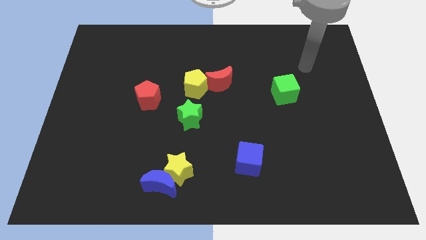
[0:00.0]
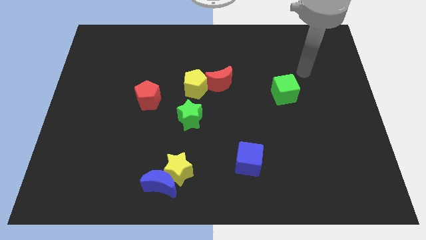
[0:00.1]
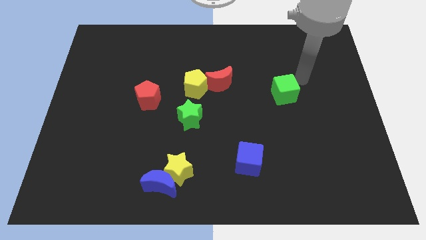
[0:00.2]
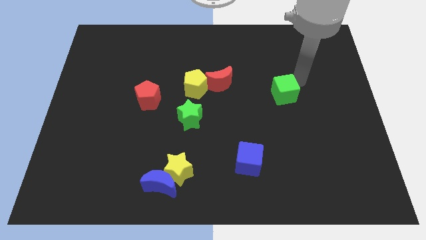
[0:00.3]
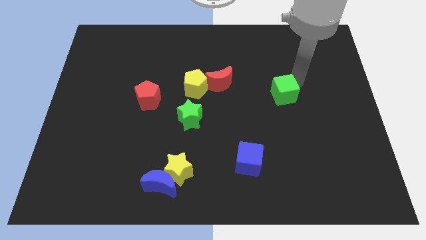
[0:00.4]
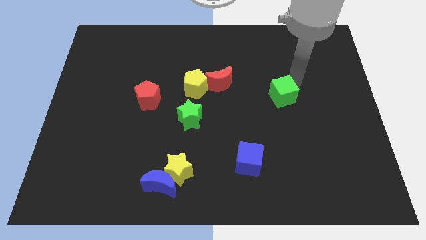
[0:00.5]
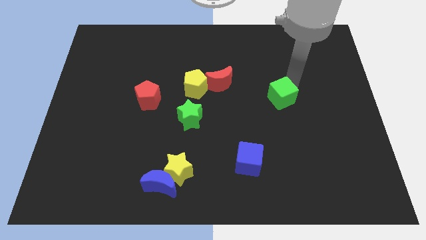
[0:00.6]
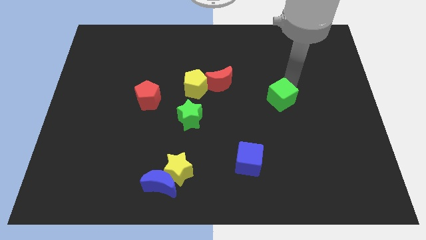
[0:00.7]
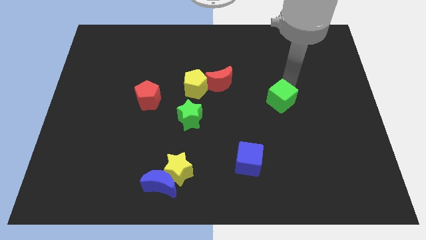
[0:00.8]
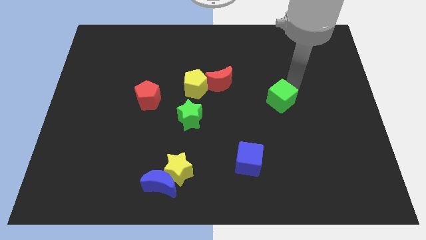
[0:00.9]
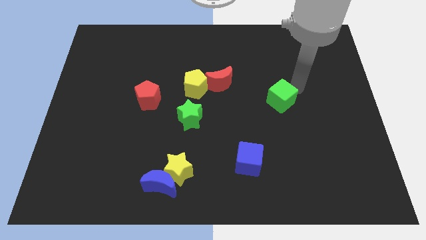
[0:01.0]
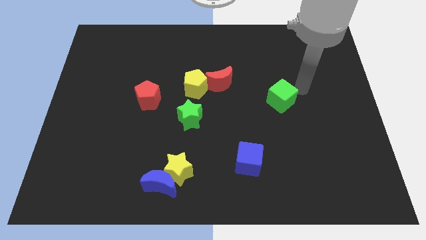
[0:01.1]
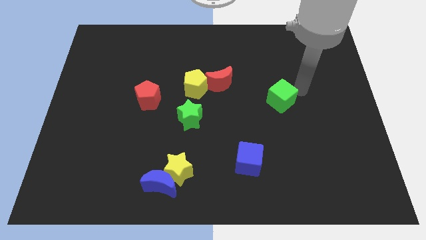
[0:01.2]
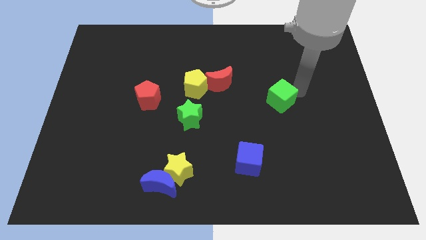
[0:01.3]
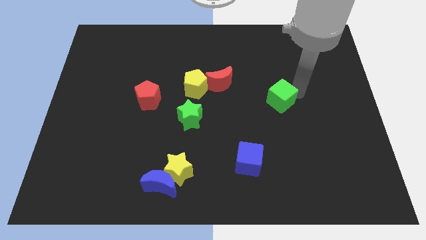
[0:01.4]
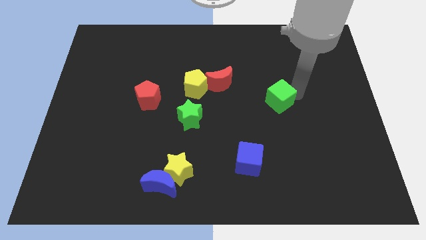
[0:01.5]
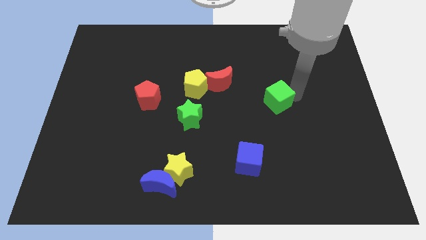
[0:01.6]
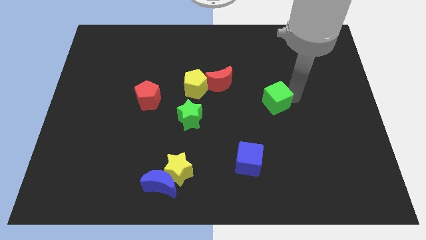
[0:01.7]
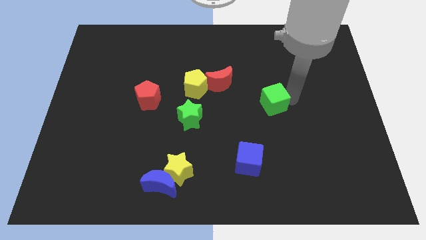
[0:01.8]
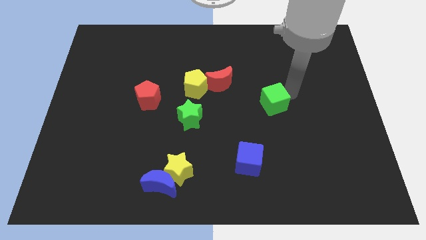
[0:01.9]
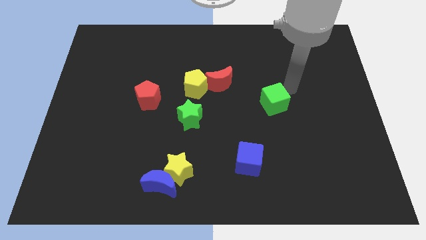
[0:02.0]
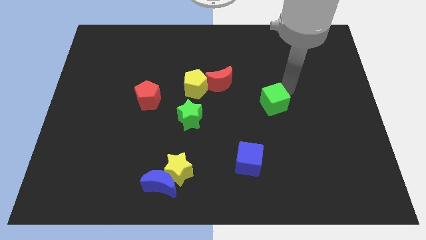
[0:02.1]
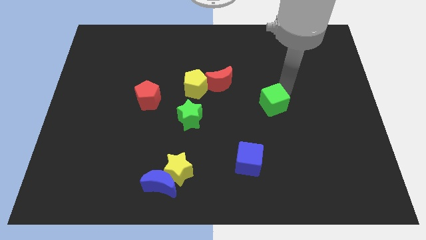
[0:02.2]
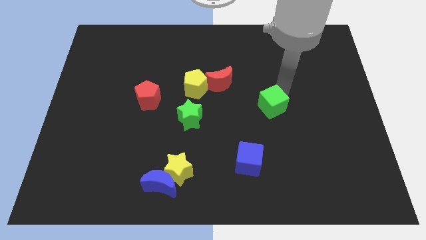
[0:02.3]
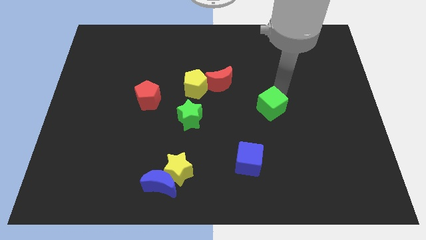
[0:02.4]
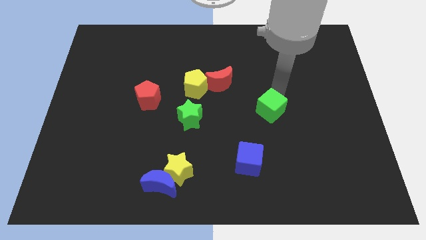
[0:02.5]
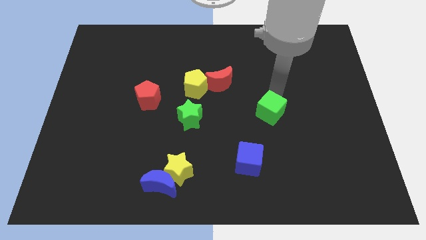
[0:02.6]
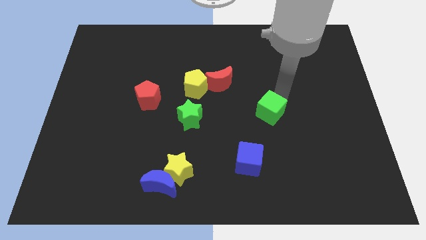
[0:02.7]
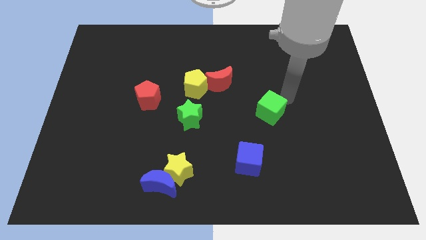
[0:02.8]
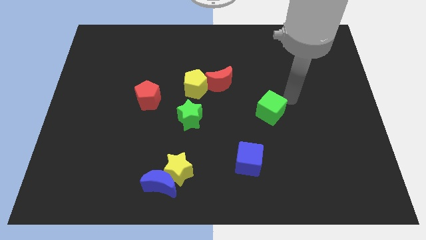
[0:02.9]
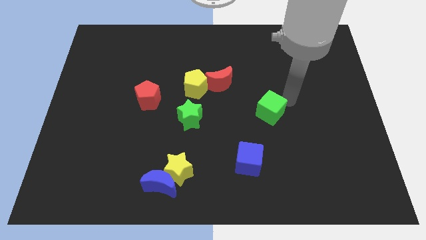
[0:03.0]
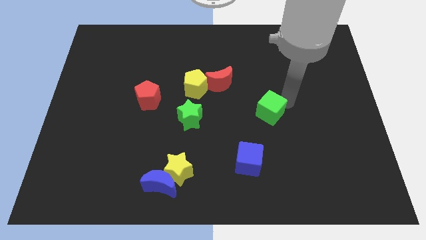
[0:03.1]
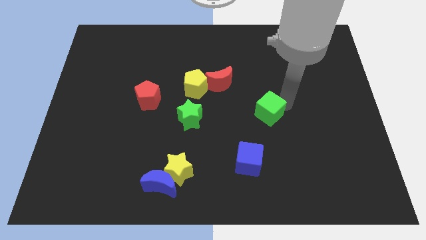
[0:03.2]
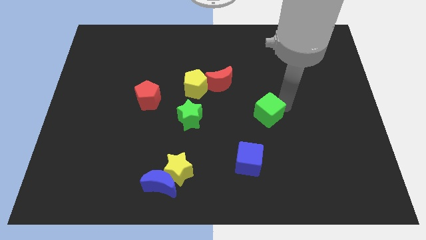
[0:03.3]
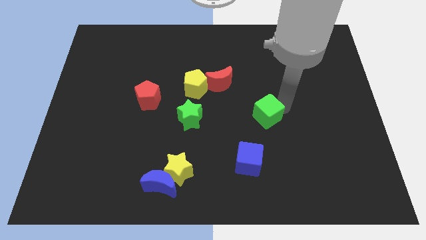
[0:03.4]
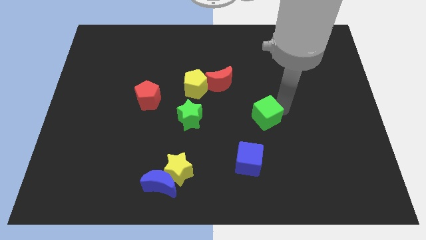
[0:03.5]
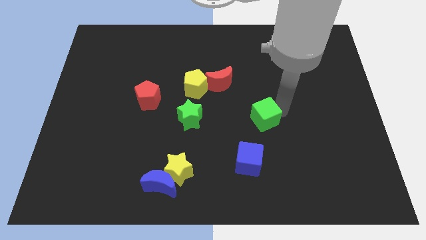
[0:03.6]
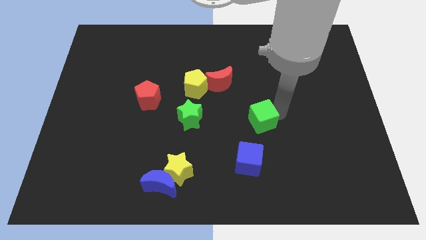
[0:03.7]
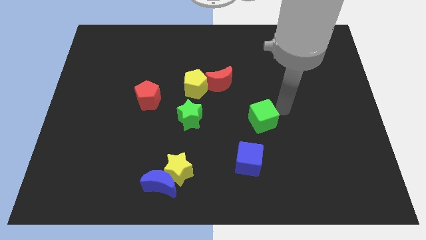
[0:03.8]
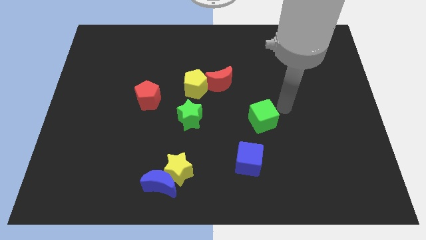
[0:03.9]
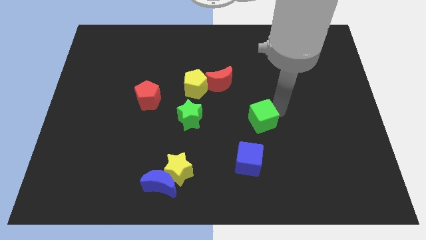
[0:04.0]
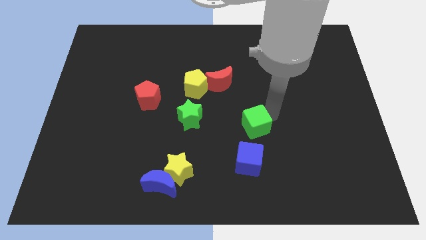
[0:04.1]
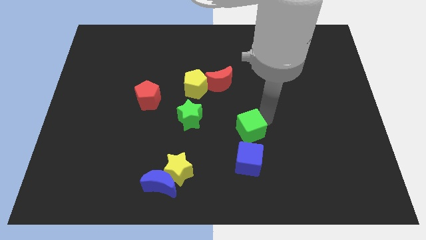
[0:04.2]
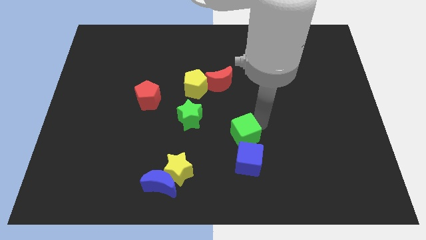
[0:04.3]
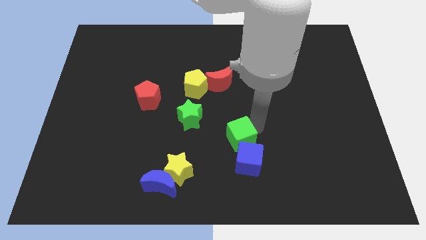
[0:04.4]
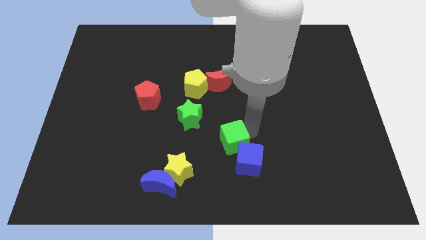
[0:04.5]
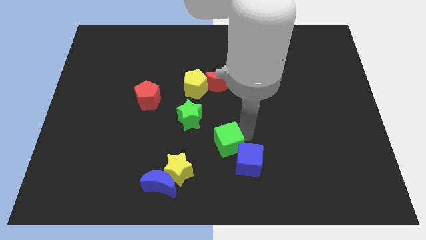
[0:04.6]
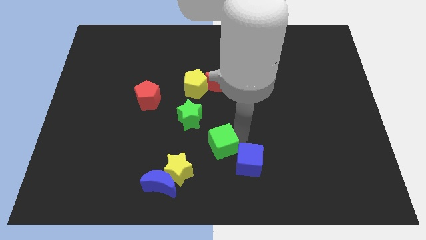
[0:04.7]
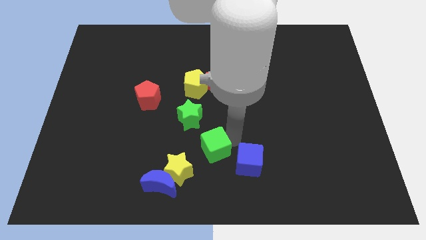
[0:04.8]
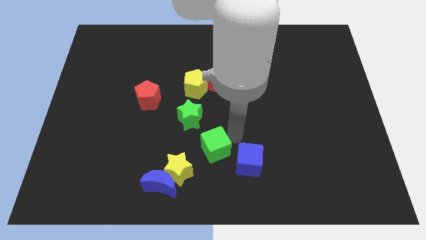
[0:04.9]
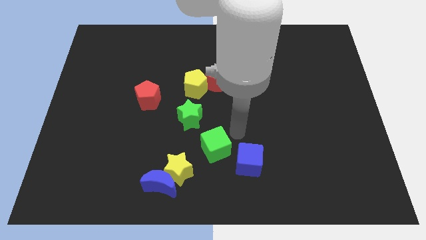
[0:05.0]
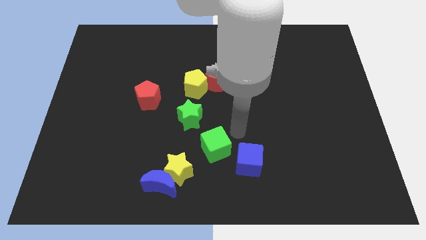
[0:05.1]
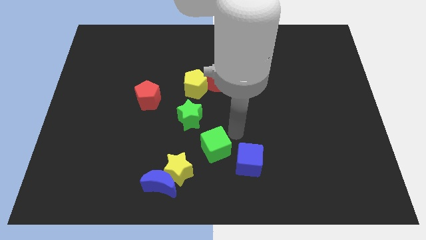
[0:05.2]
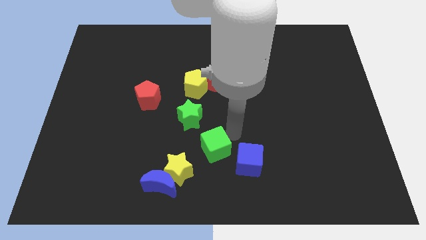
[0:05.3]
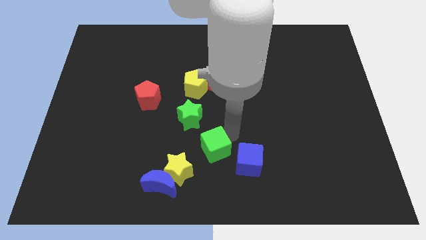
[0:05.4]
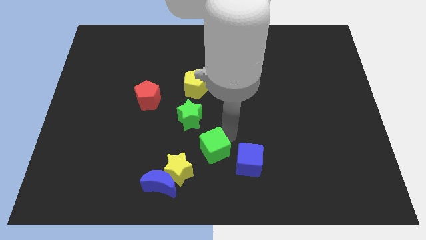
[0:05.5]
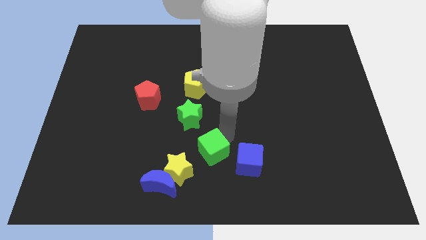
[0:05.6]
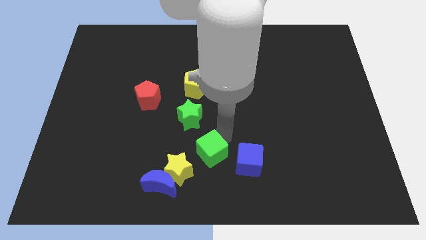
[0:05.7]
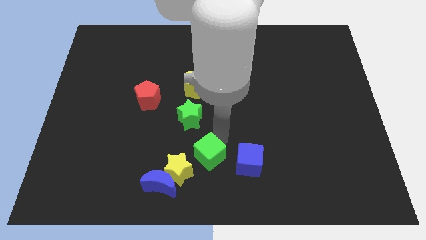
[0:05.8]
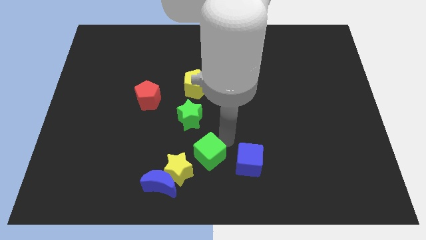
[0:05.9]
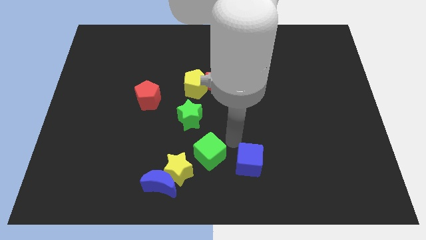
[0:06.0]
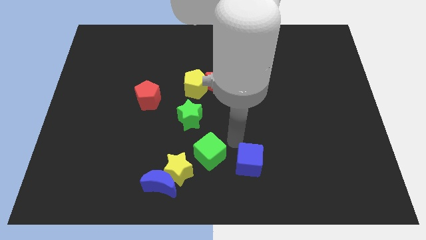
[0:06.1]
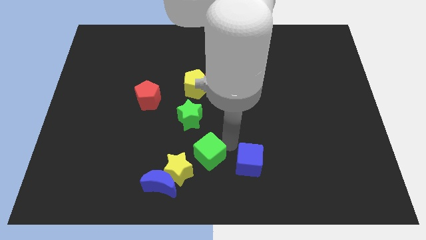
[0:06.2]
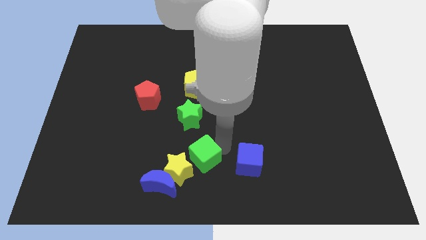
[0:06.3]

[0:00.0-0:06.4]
slide the green cube close to the yellow star
